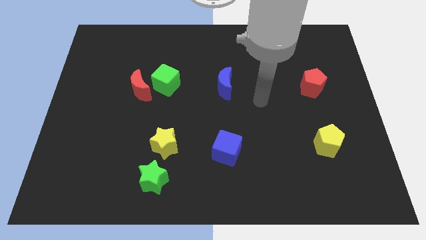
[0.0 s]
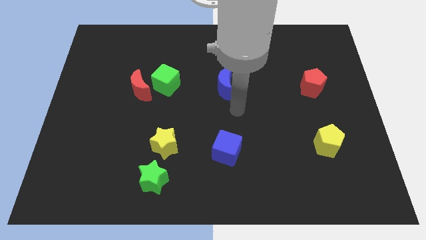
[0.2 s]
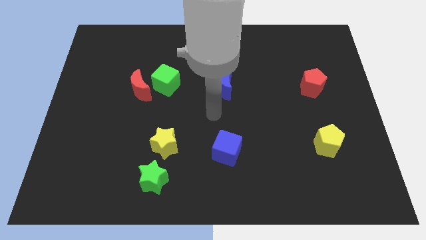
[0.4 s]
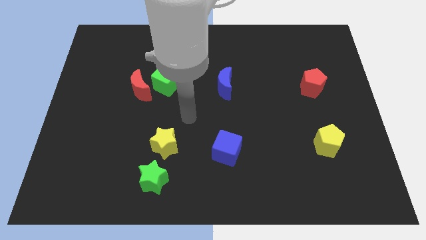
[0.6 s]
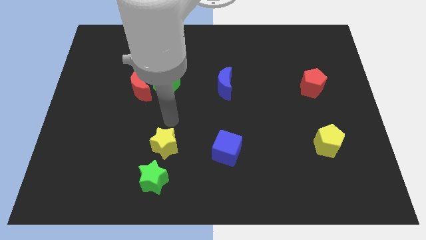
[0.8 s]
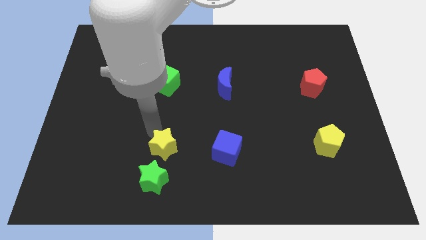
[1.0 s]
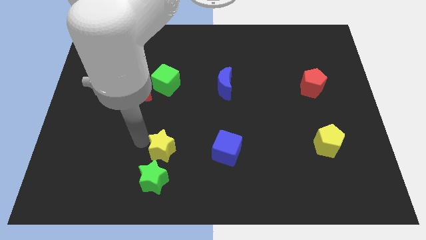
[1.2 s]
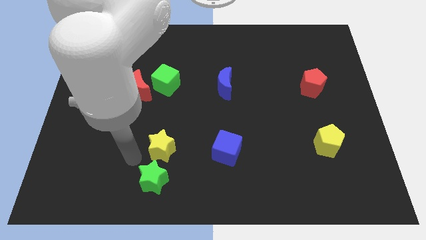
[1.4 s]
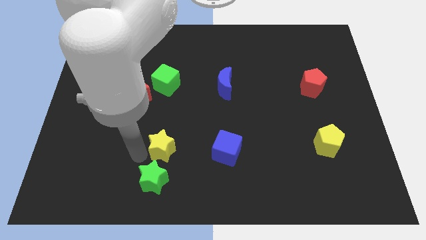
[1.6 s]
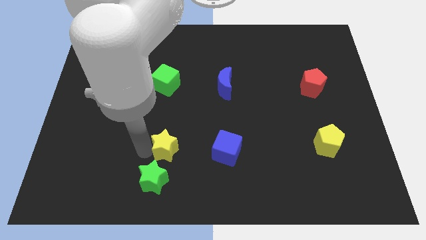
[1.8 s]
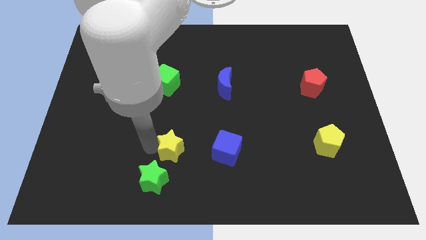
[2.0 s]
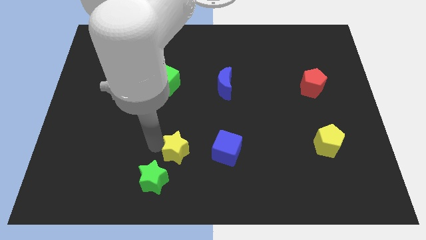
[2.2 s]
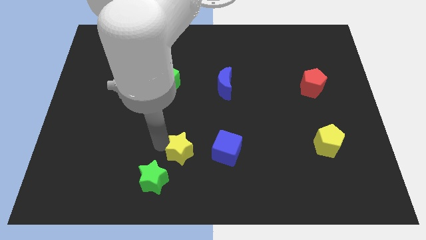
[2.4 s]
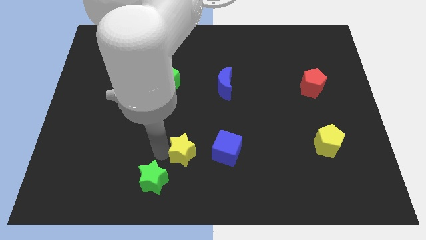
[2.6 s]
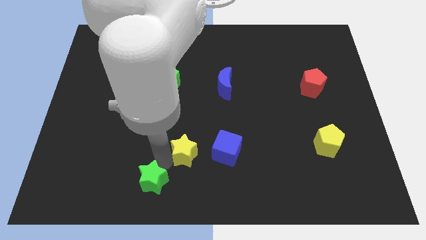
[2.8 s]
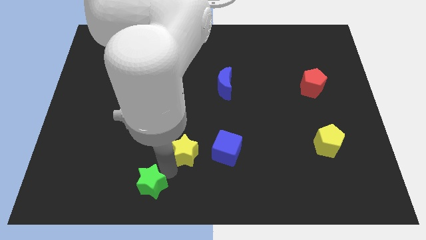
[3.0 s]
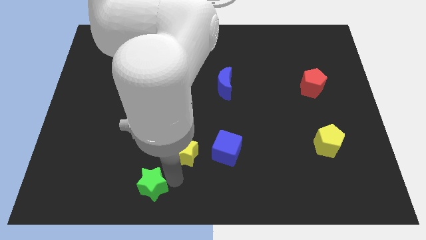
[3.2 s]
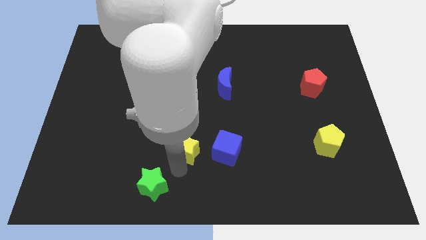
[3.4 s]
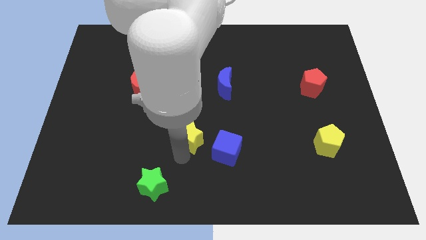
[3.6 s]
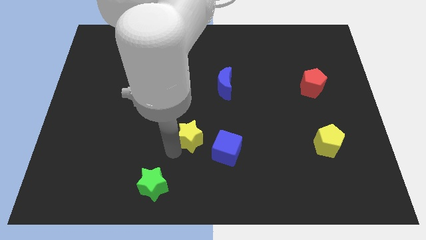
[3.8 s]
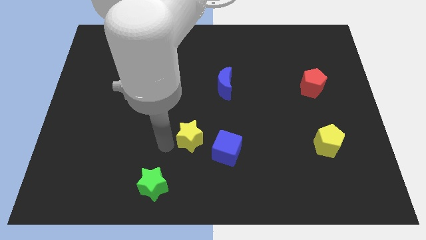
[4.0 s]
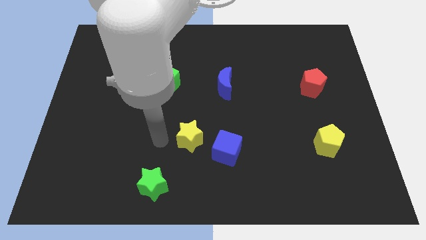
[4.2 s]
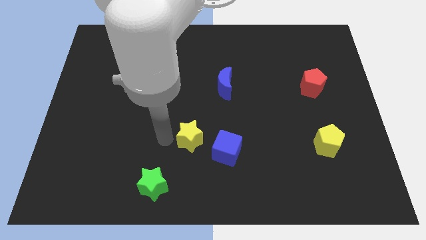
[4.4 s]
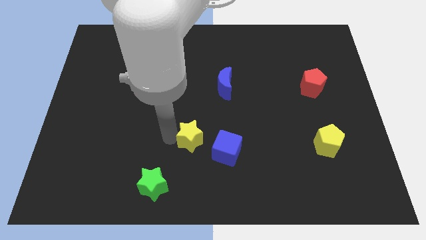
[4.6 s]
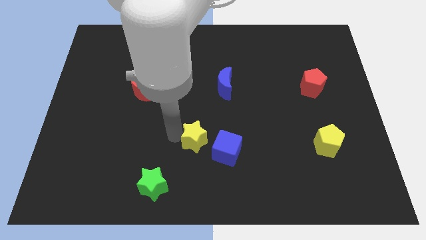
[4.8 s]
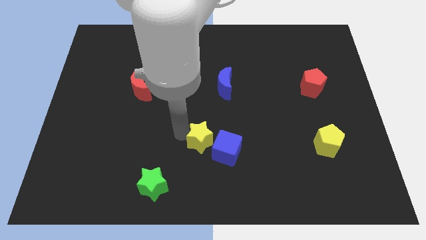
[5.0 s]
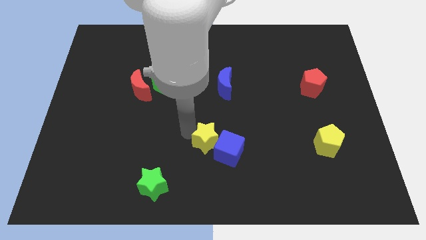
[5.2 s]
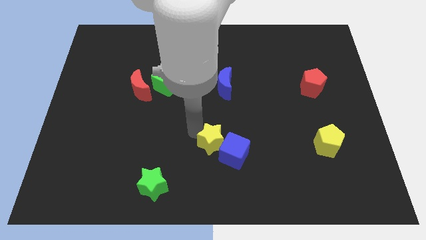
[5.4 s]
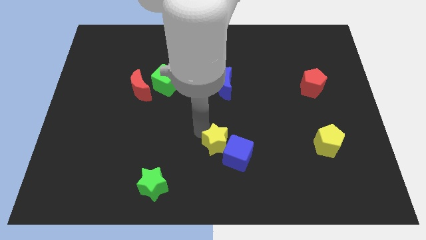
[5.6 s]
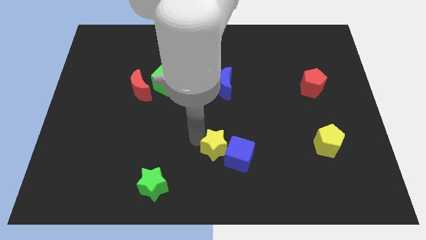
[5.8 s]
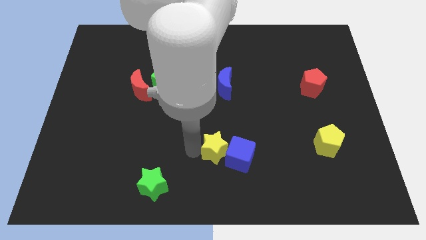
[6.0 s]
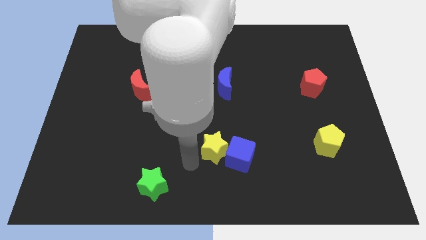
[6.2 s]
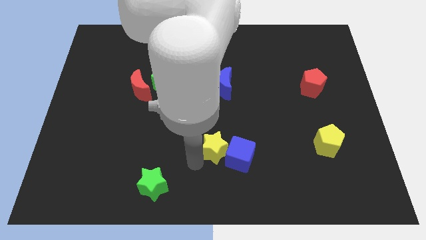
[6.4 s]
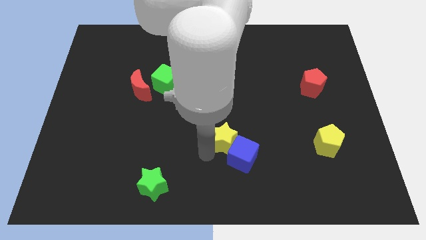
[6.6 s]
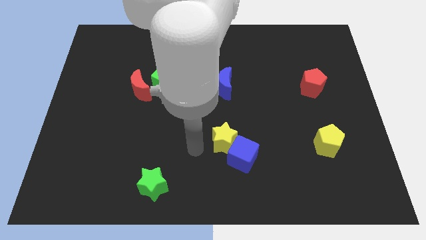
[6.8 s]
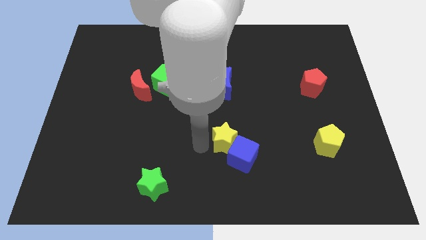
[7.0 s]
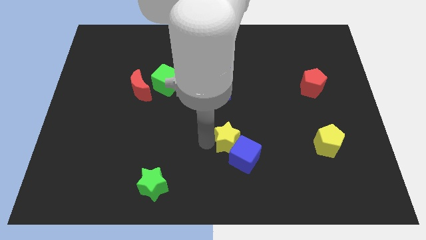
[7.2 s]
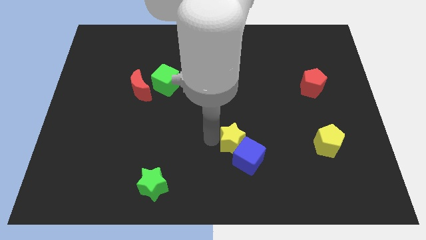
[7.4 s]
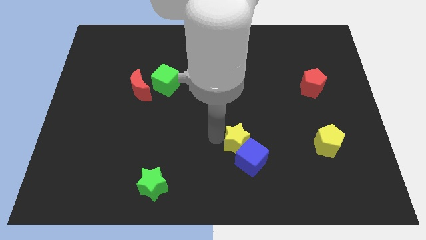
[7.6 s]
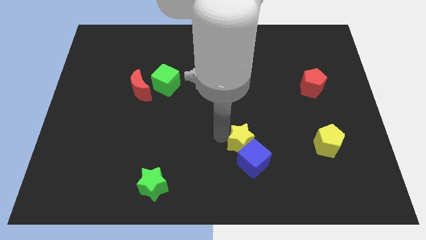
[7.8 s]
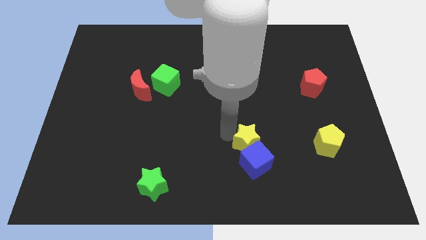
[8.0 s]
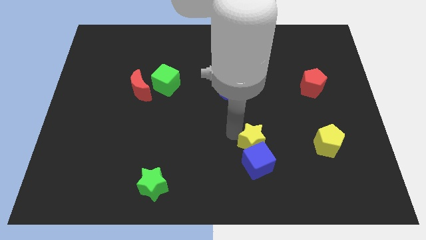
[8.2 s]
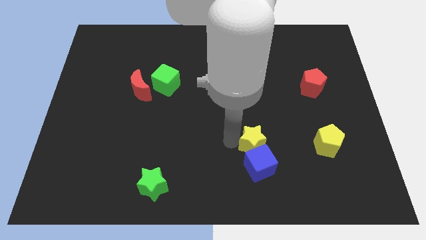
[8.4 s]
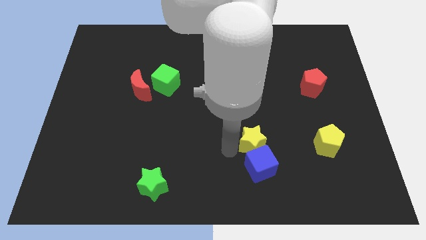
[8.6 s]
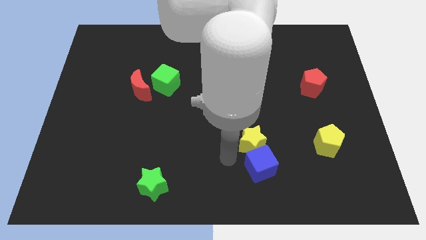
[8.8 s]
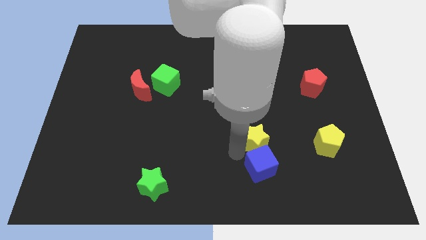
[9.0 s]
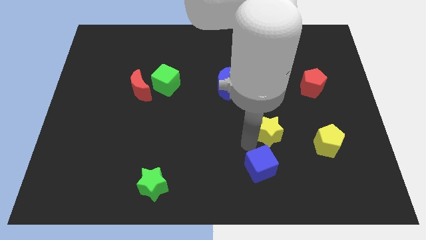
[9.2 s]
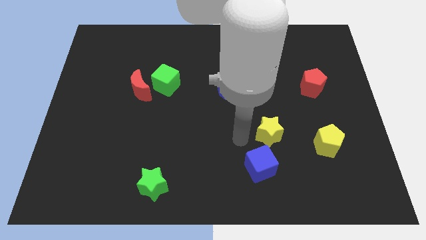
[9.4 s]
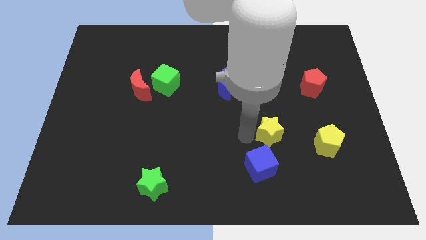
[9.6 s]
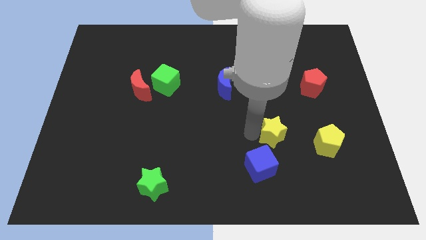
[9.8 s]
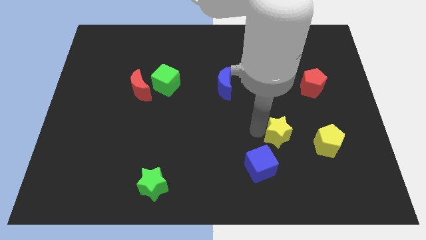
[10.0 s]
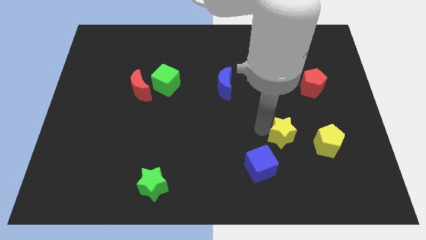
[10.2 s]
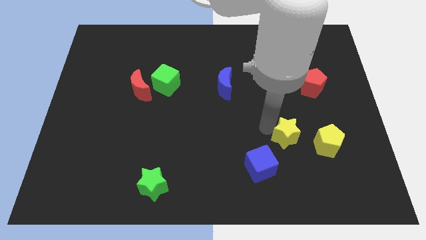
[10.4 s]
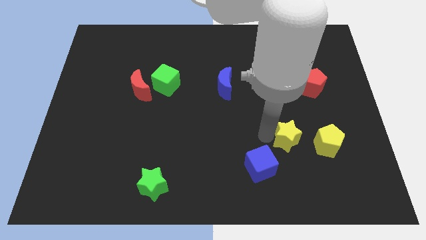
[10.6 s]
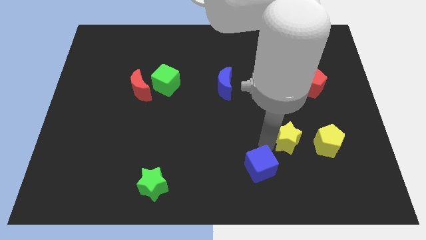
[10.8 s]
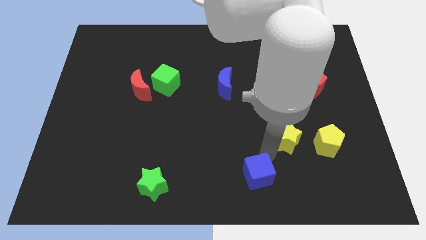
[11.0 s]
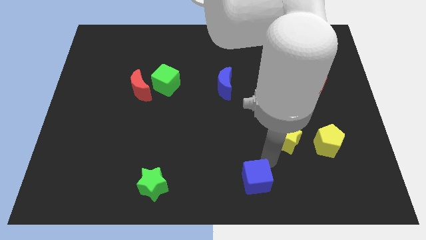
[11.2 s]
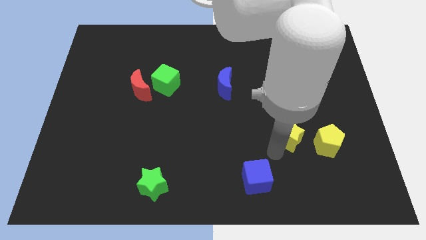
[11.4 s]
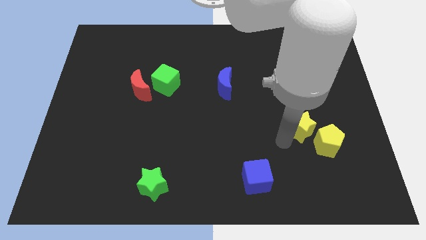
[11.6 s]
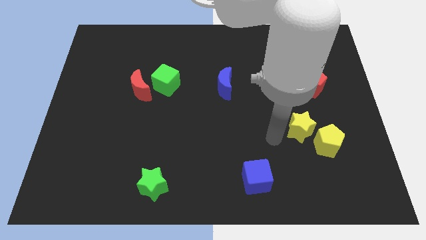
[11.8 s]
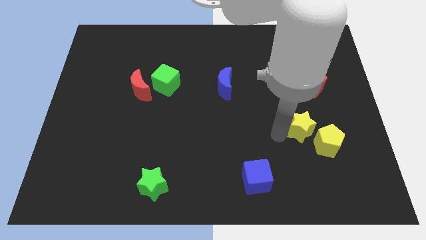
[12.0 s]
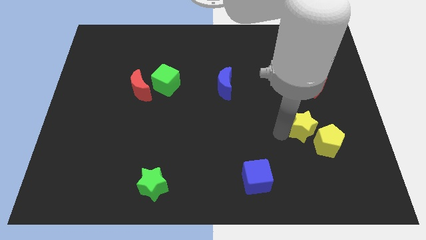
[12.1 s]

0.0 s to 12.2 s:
slide the yellow star to the bottom of the red pentagon
